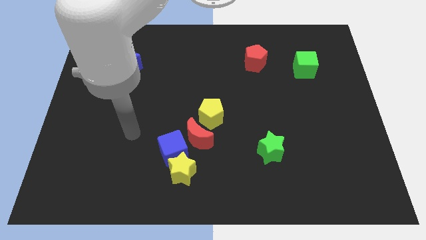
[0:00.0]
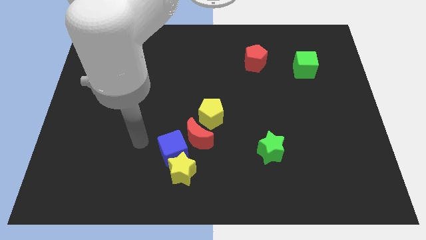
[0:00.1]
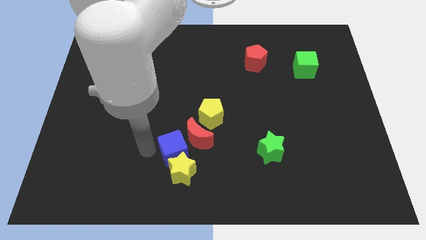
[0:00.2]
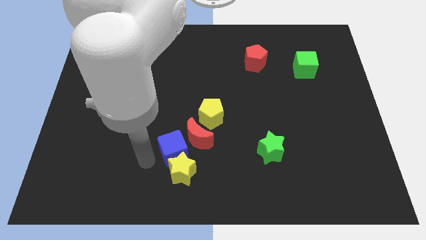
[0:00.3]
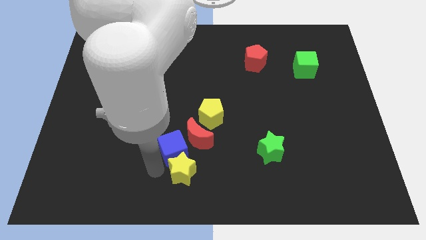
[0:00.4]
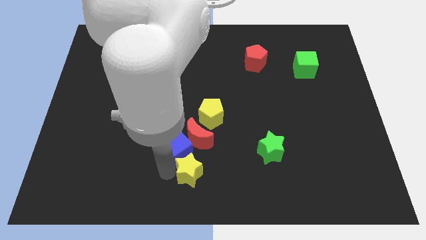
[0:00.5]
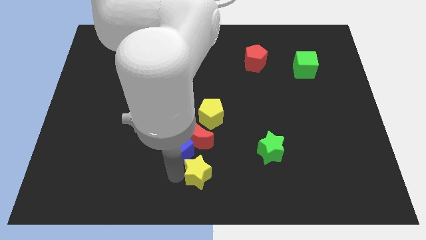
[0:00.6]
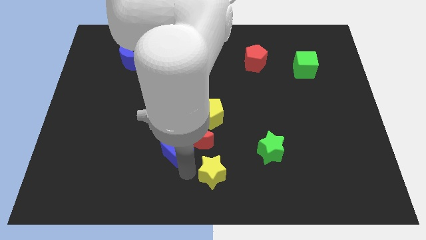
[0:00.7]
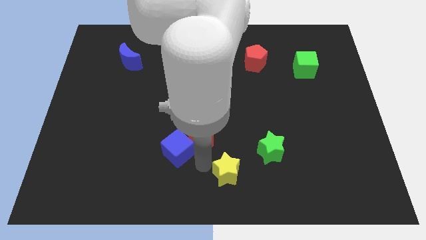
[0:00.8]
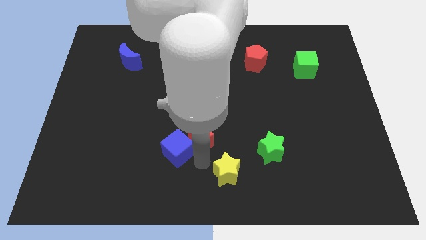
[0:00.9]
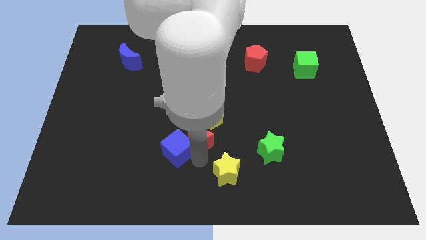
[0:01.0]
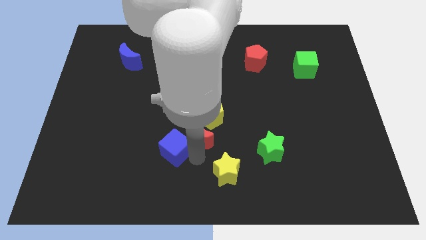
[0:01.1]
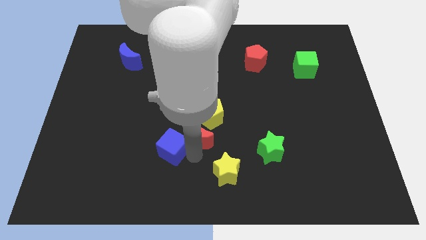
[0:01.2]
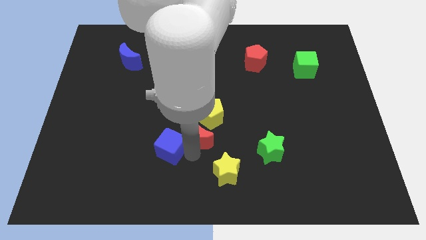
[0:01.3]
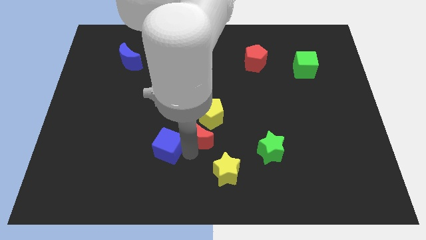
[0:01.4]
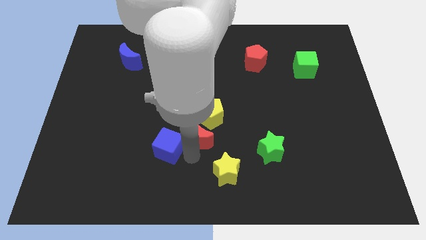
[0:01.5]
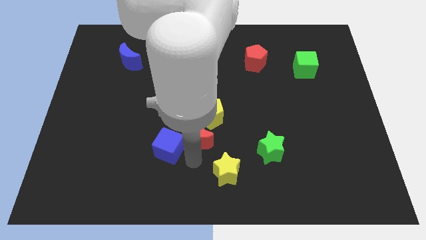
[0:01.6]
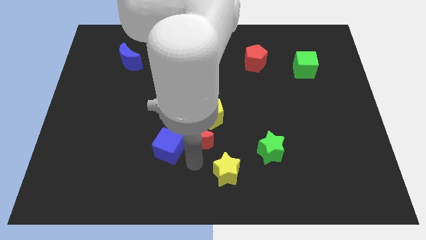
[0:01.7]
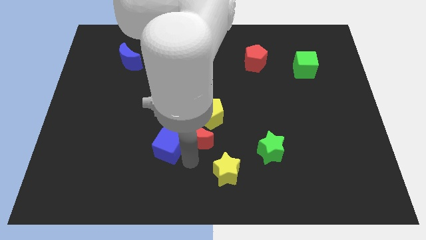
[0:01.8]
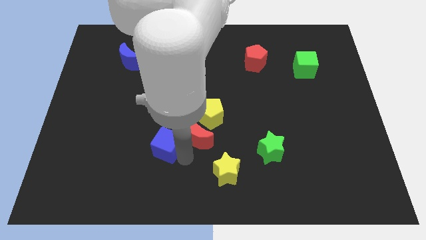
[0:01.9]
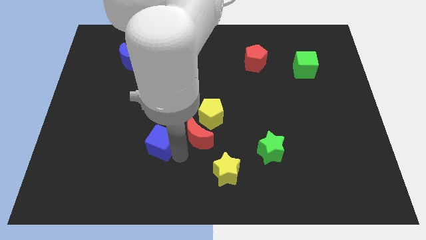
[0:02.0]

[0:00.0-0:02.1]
pull the blue cube apart from the yellow star and red moon

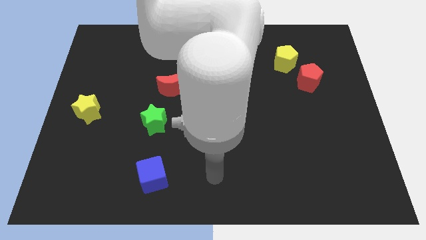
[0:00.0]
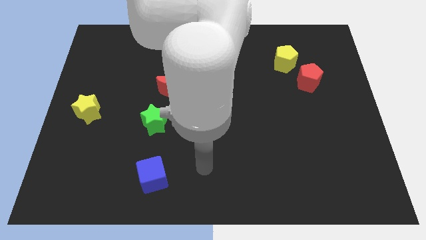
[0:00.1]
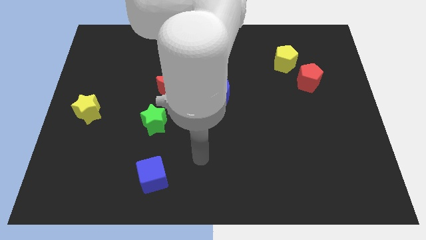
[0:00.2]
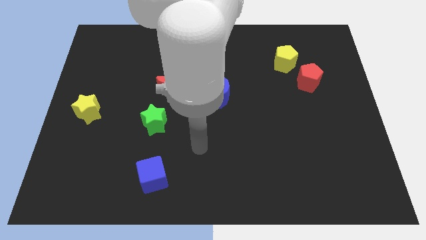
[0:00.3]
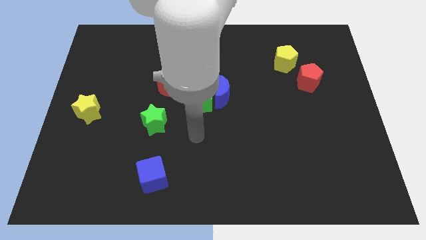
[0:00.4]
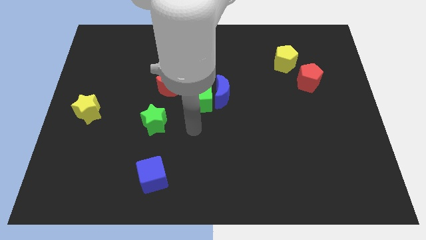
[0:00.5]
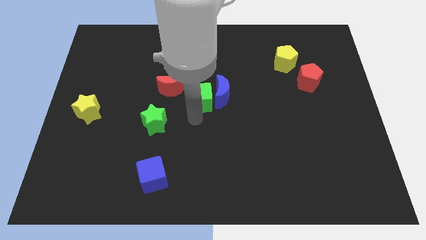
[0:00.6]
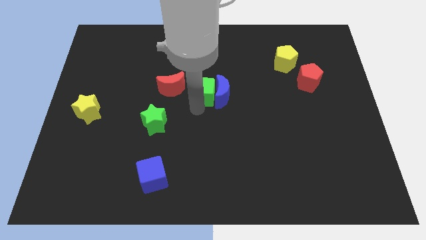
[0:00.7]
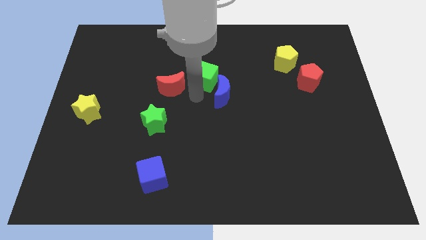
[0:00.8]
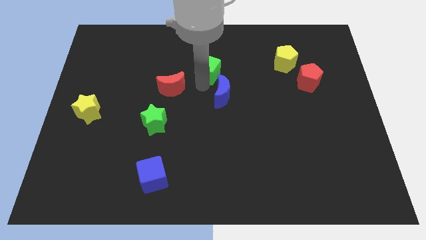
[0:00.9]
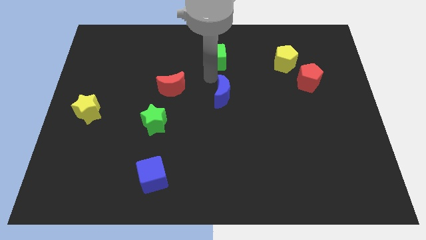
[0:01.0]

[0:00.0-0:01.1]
pull the blue moon apart from the green cube

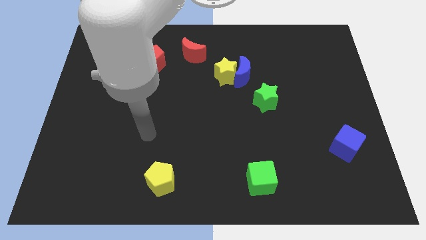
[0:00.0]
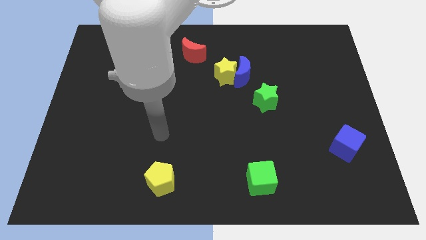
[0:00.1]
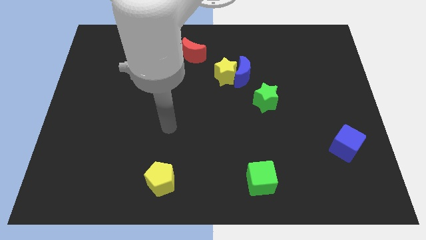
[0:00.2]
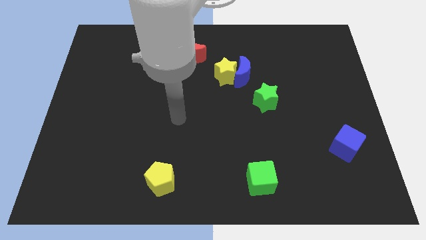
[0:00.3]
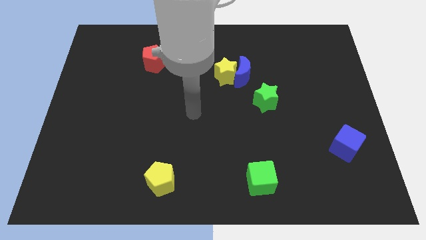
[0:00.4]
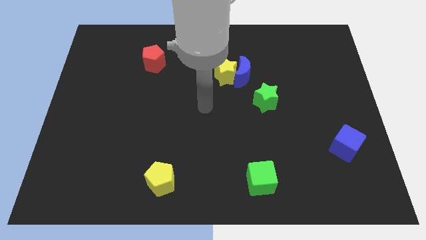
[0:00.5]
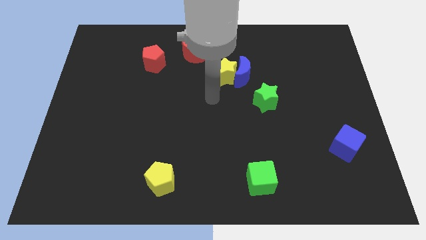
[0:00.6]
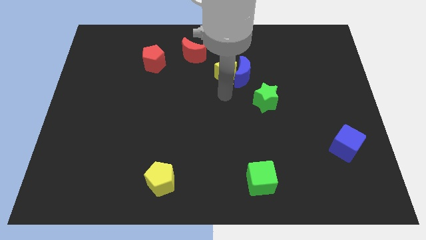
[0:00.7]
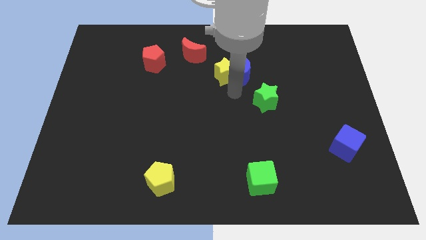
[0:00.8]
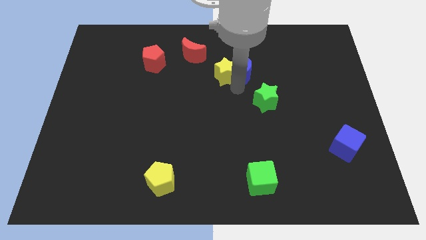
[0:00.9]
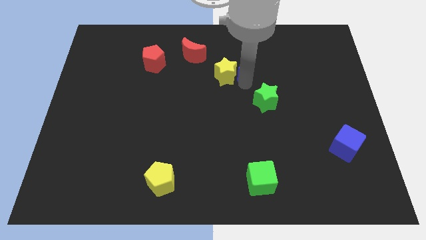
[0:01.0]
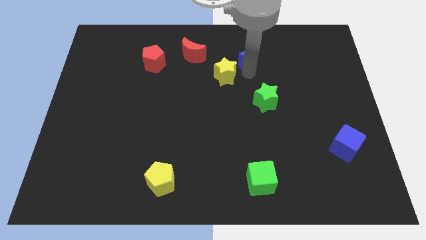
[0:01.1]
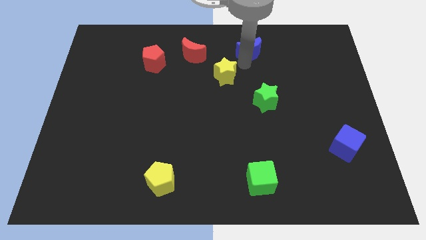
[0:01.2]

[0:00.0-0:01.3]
pull the yellow star apart from the blue moon

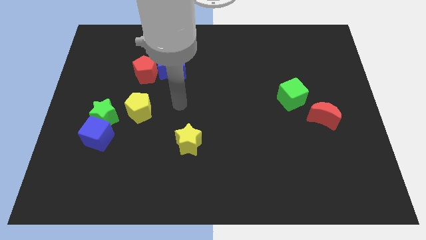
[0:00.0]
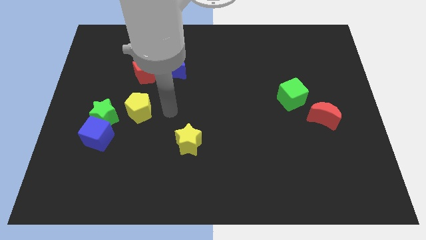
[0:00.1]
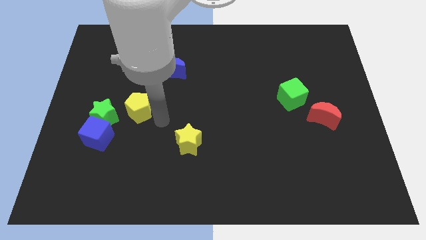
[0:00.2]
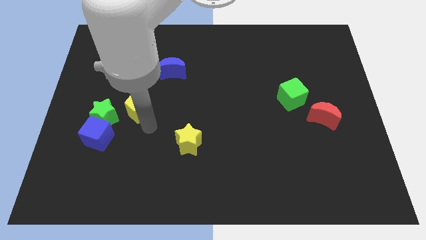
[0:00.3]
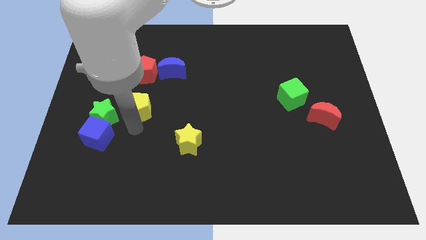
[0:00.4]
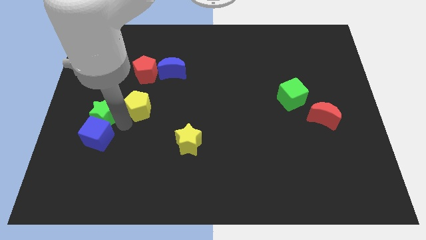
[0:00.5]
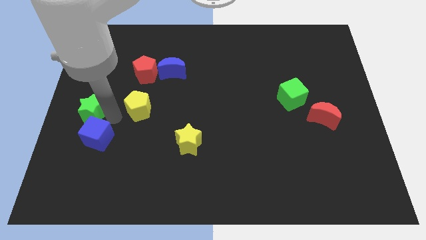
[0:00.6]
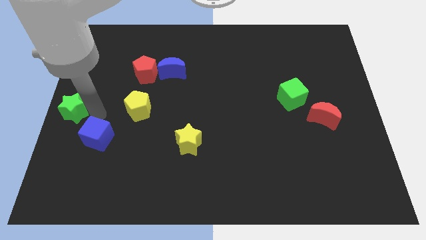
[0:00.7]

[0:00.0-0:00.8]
move the blue cube away from the green star

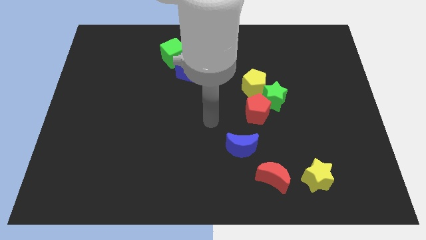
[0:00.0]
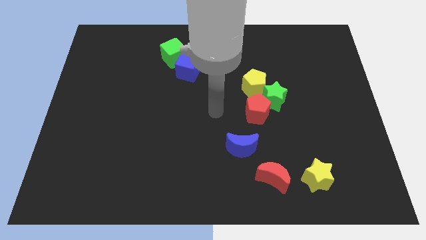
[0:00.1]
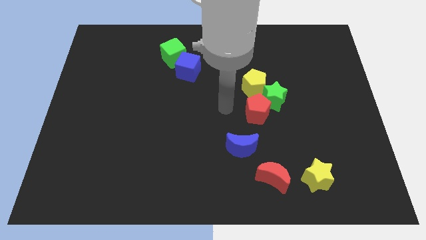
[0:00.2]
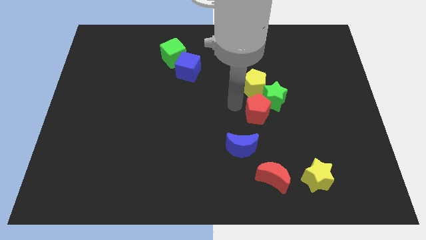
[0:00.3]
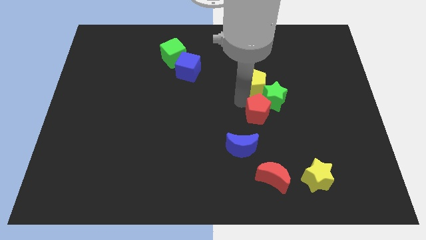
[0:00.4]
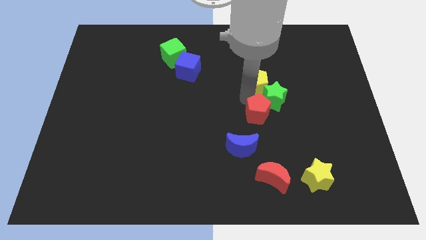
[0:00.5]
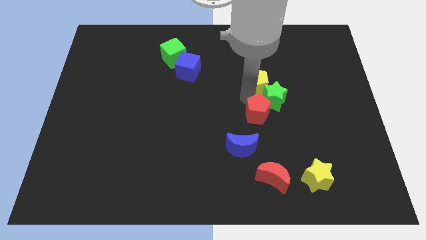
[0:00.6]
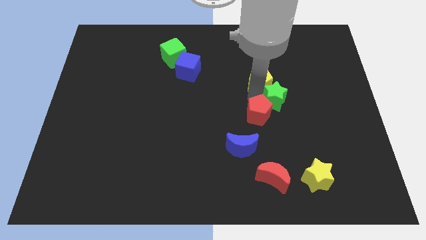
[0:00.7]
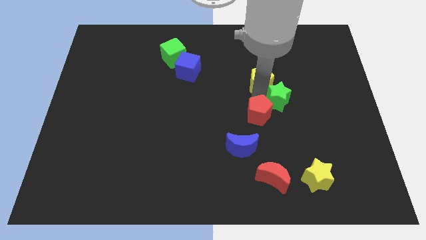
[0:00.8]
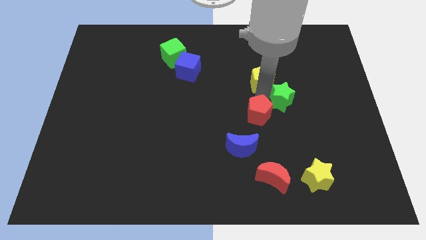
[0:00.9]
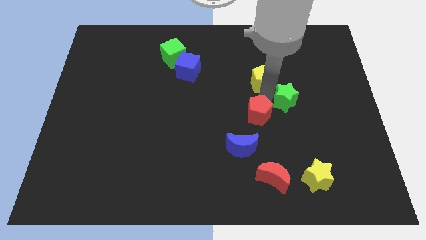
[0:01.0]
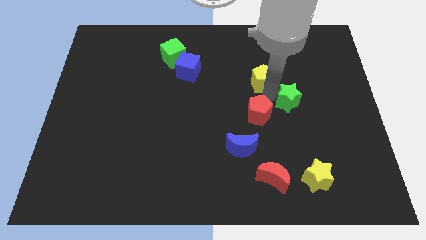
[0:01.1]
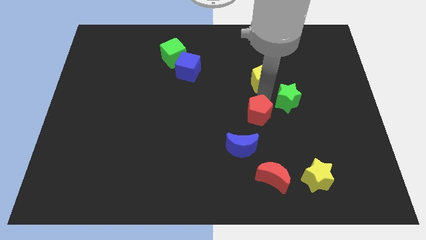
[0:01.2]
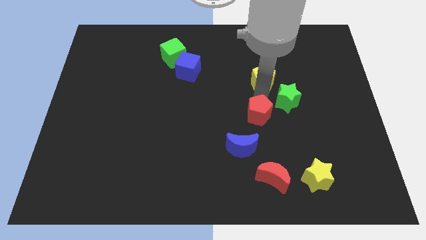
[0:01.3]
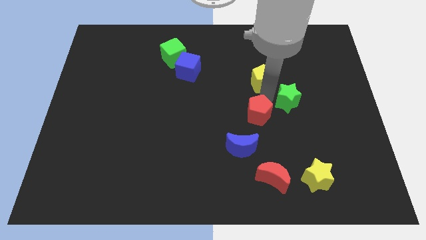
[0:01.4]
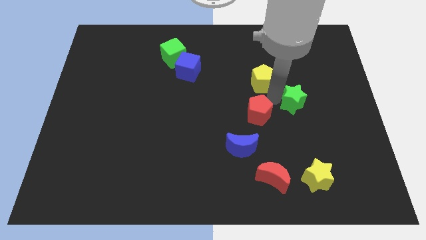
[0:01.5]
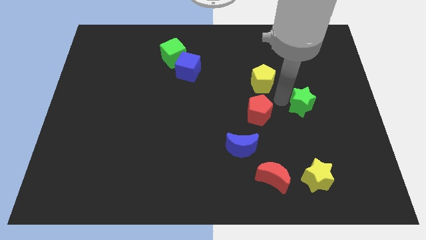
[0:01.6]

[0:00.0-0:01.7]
separate the green star from the red pentagon and yellow pentagon

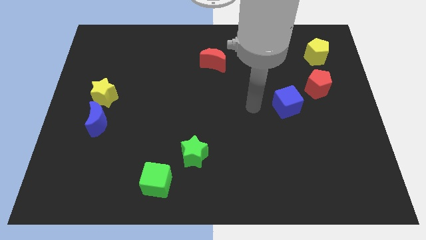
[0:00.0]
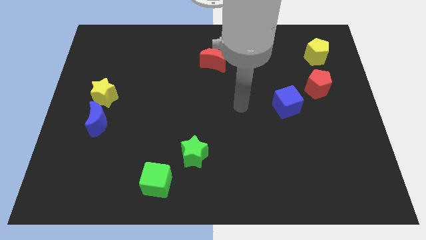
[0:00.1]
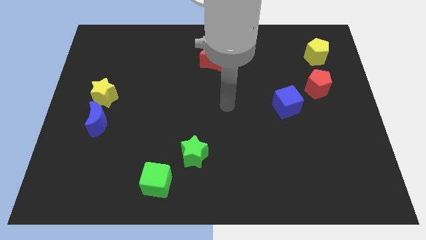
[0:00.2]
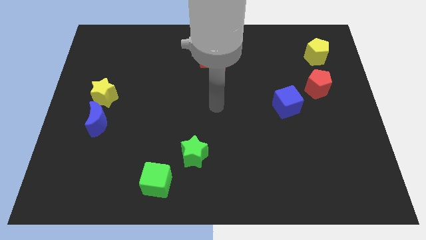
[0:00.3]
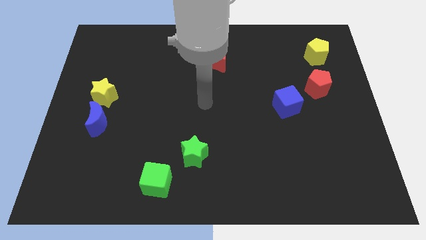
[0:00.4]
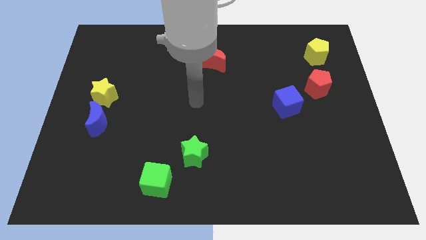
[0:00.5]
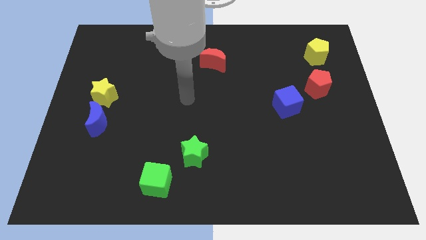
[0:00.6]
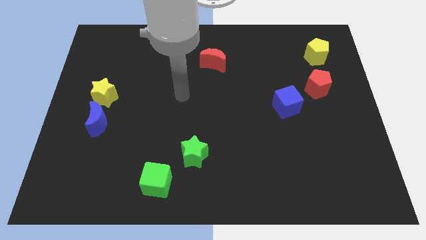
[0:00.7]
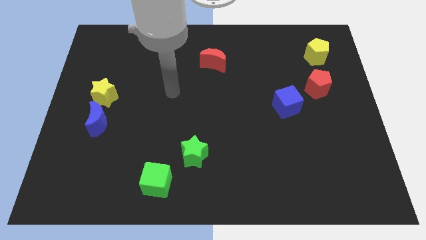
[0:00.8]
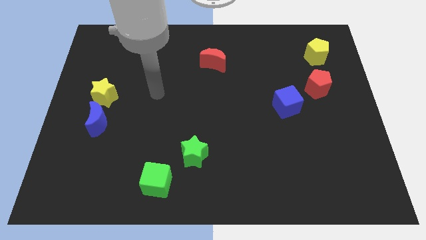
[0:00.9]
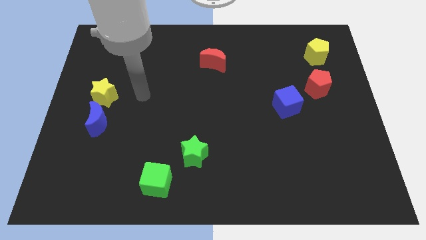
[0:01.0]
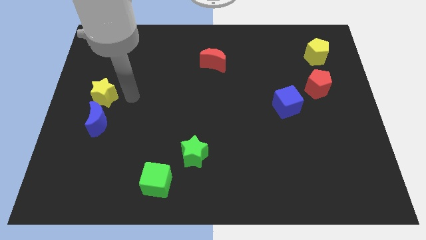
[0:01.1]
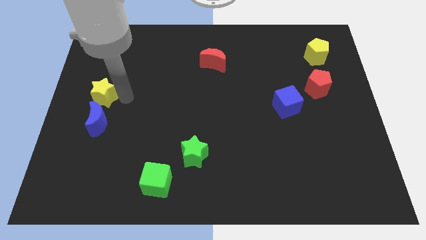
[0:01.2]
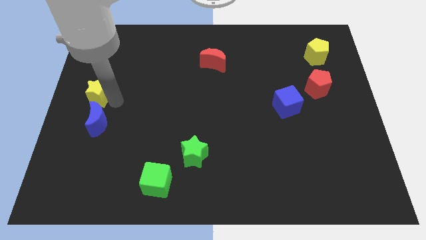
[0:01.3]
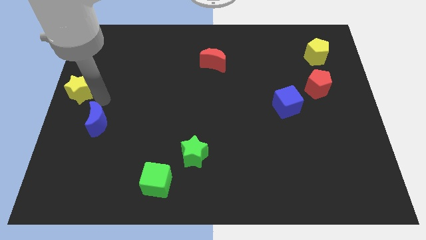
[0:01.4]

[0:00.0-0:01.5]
pull the blue moon apart from the yellow star

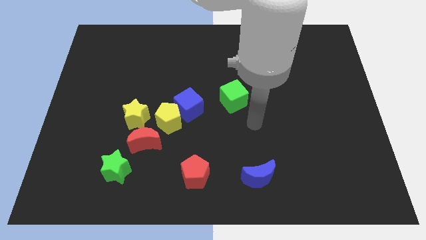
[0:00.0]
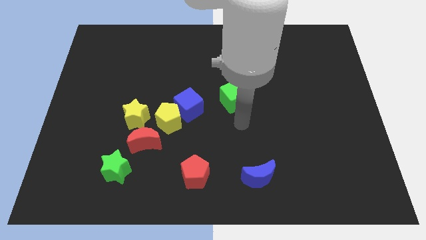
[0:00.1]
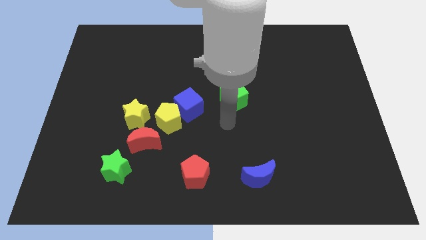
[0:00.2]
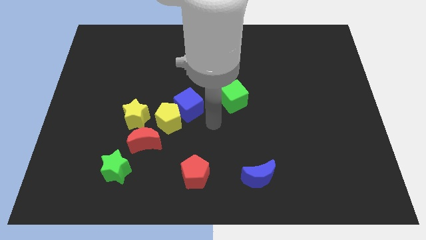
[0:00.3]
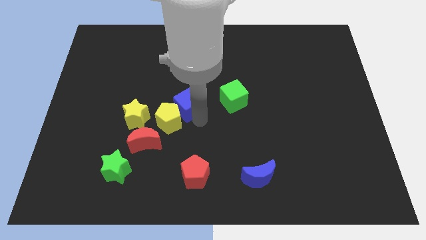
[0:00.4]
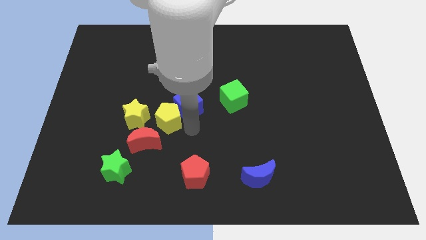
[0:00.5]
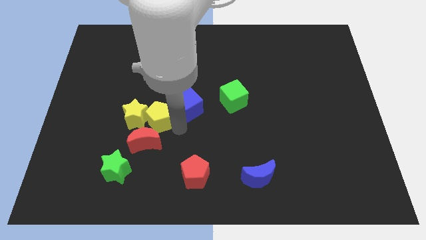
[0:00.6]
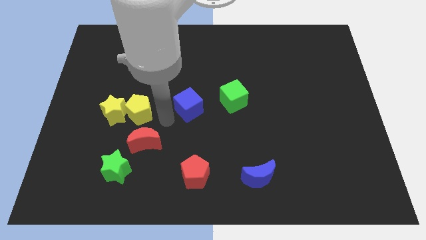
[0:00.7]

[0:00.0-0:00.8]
pull the blue cube apart from the yellow pentagon
